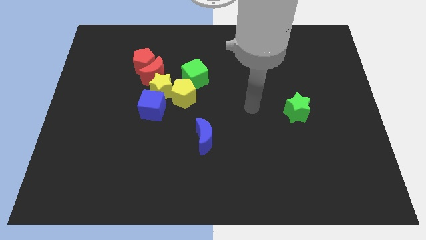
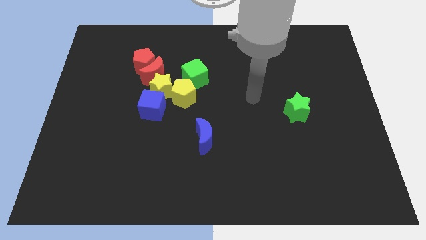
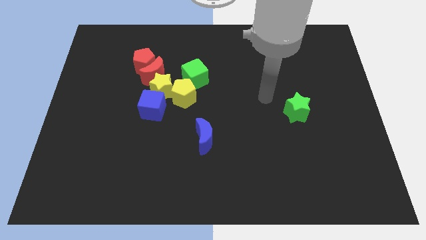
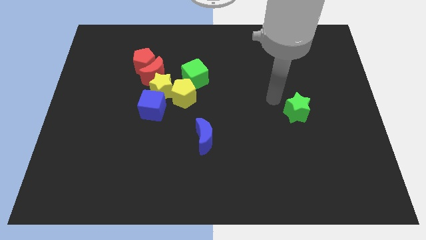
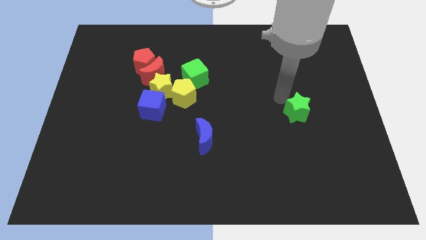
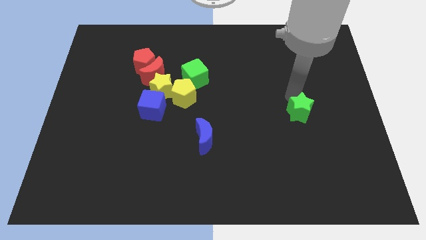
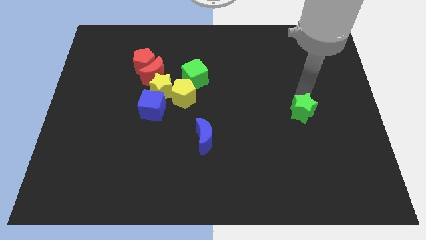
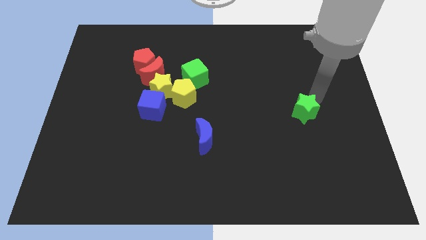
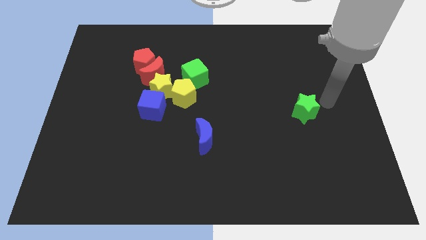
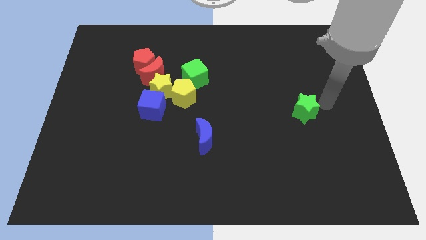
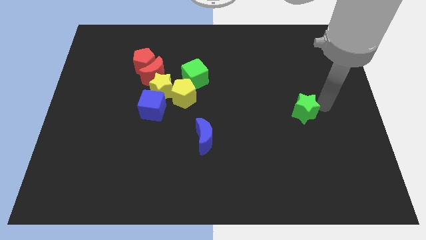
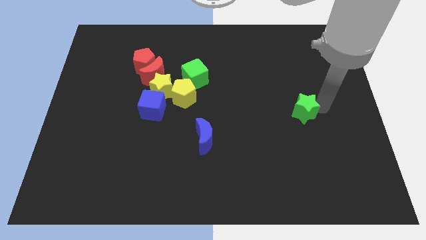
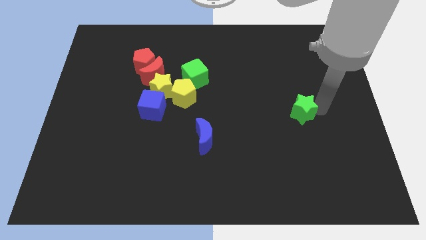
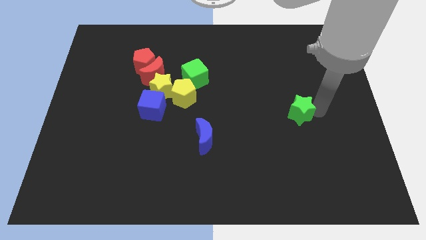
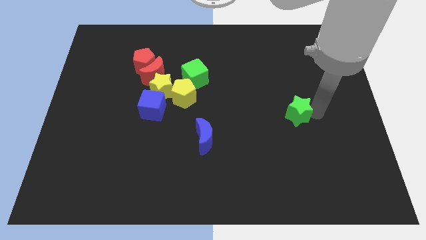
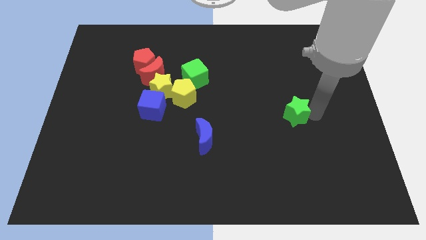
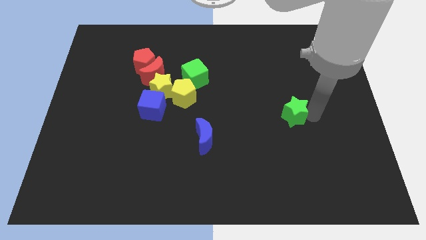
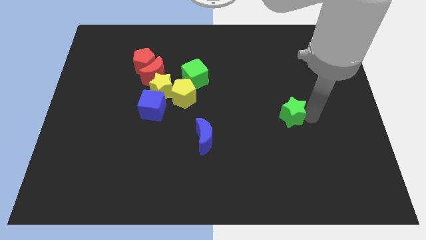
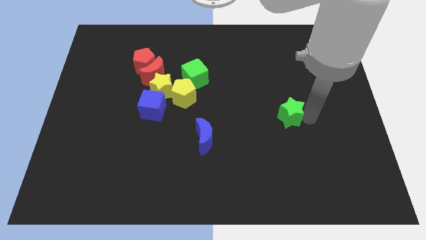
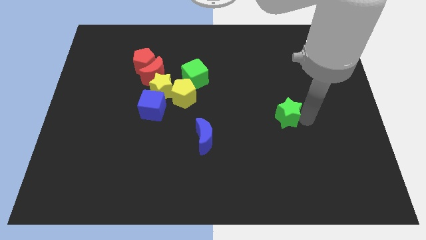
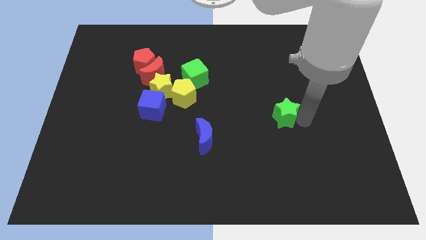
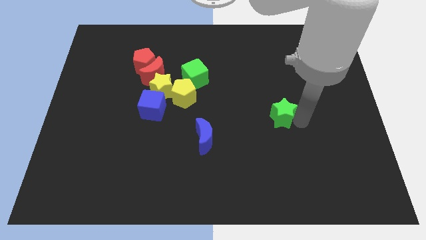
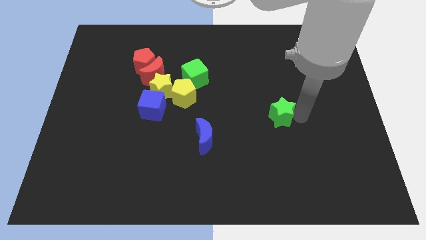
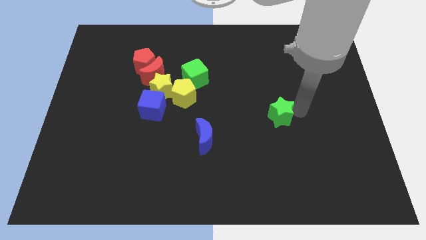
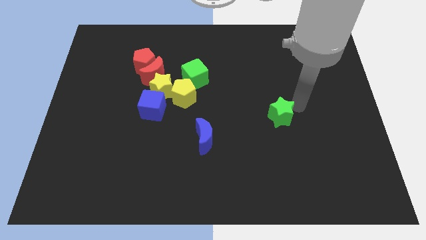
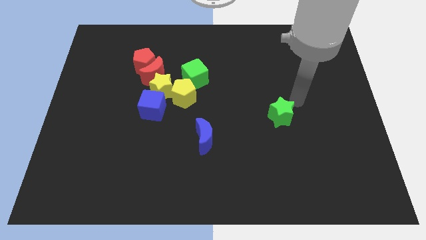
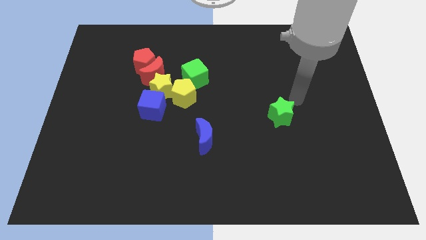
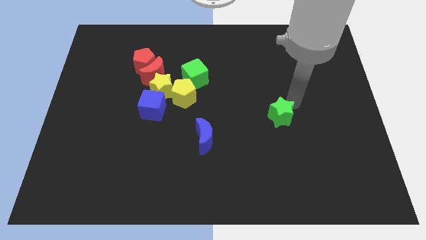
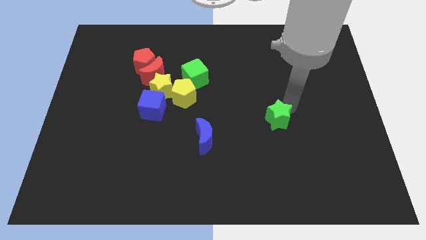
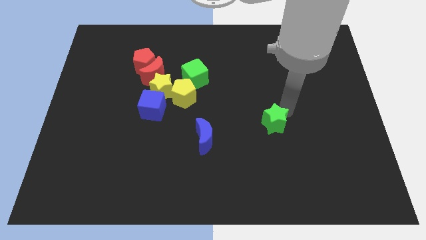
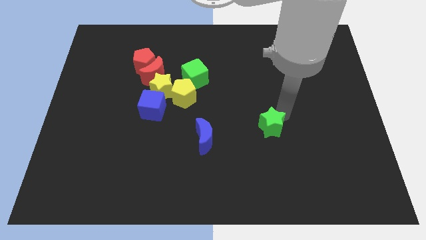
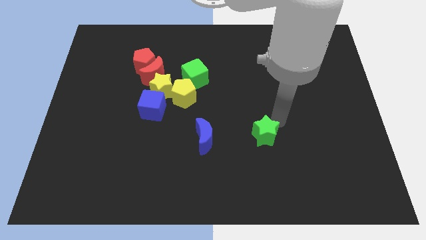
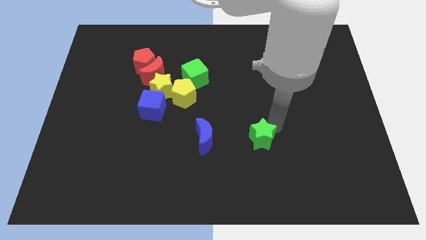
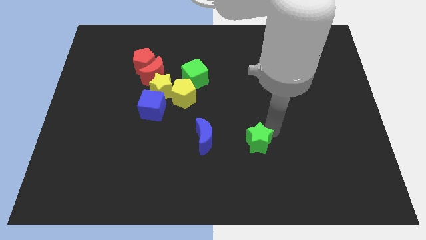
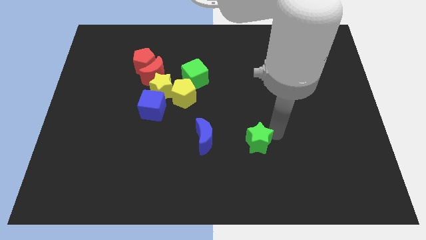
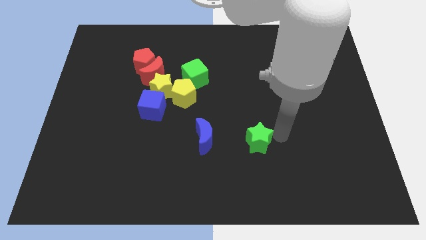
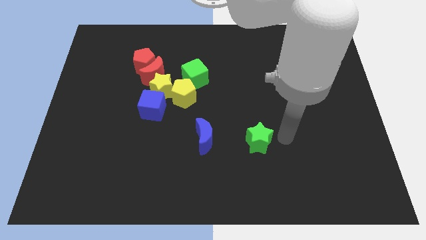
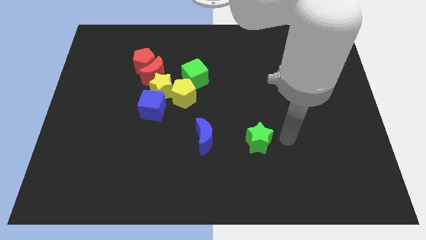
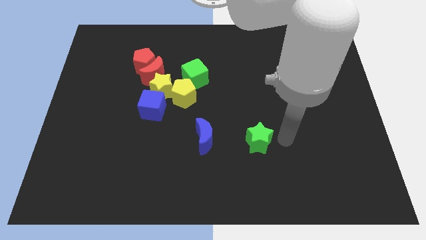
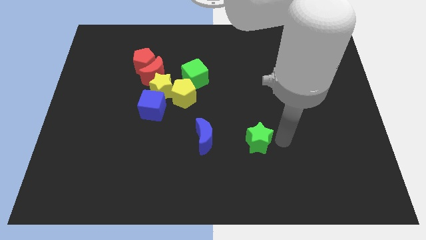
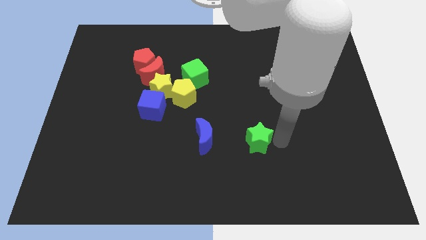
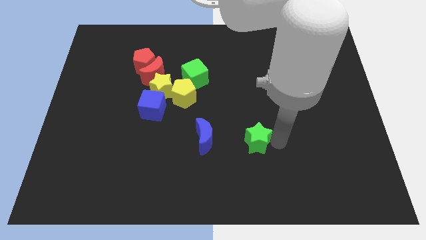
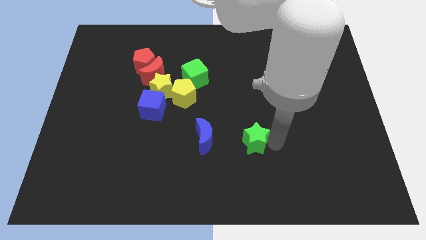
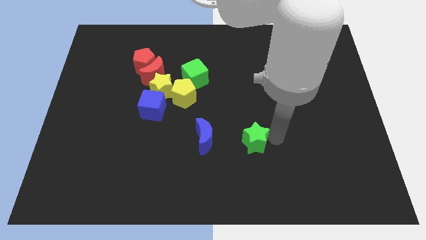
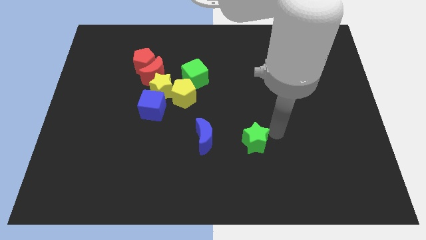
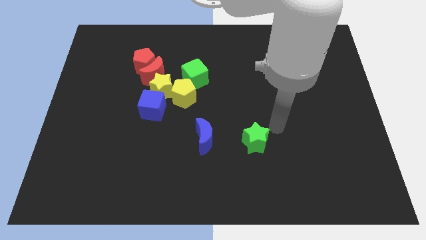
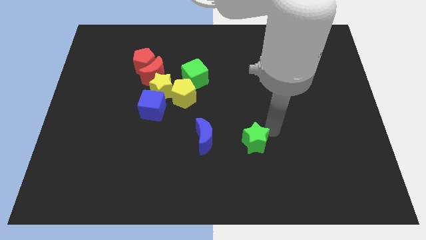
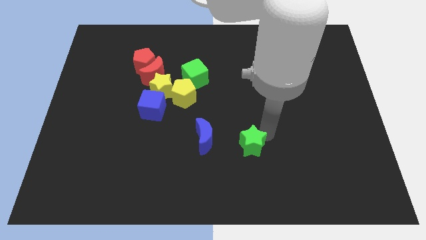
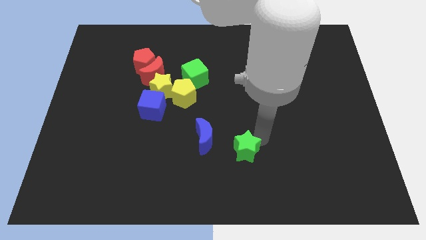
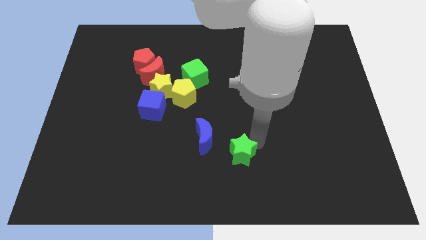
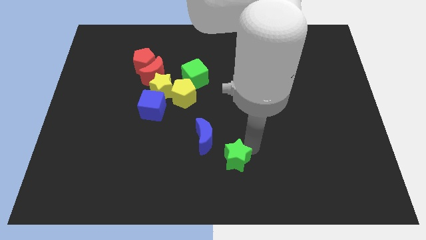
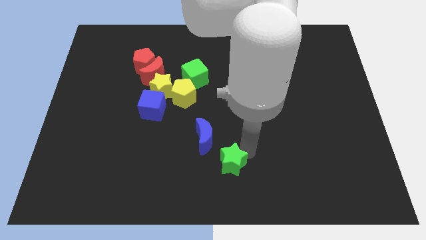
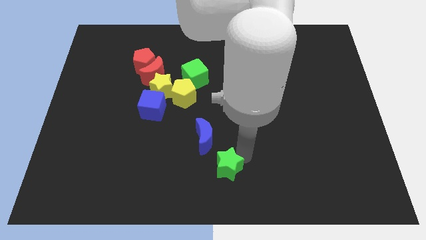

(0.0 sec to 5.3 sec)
put the green star below the blue moon

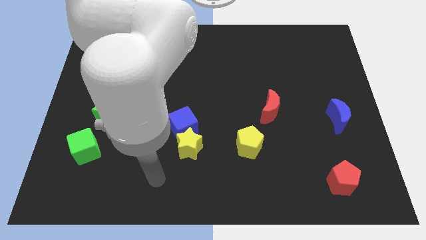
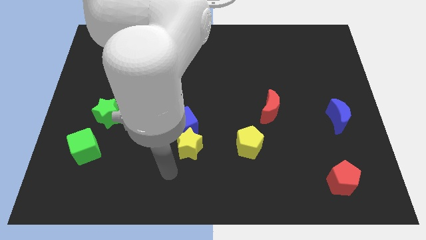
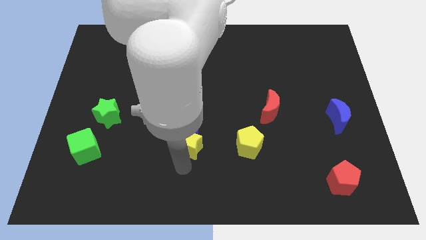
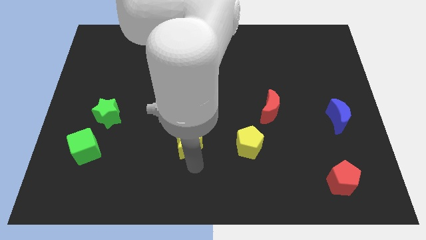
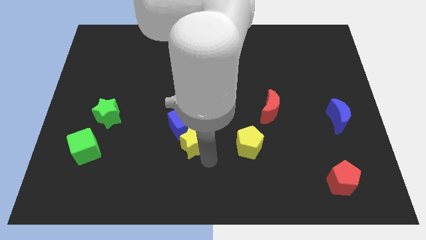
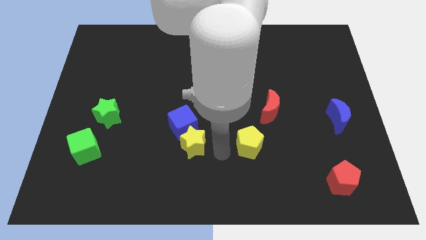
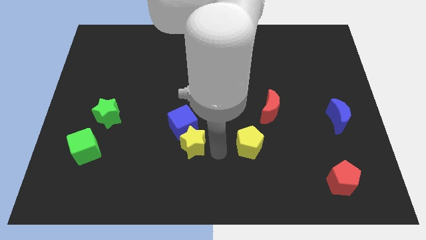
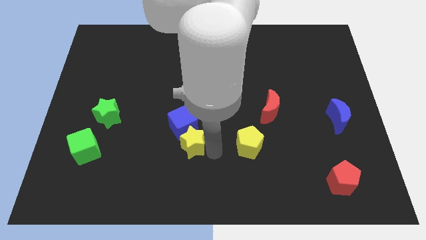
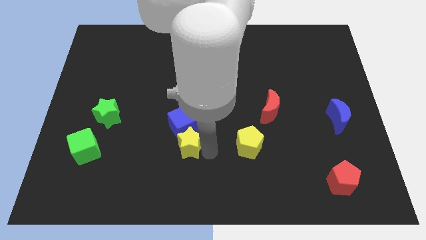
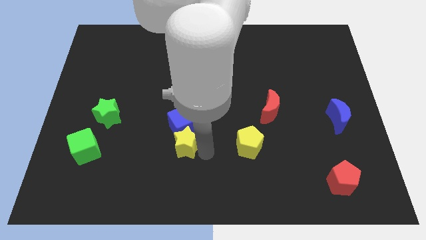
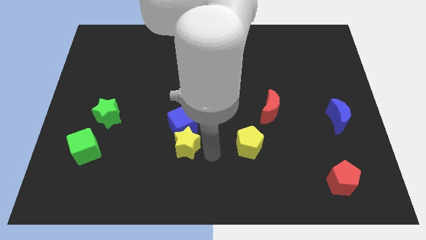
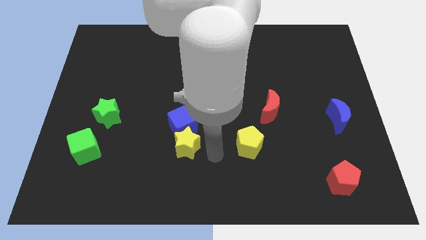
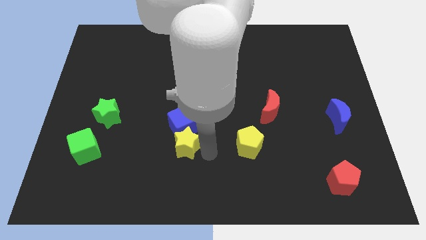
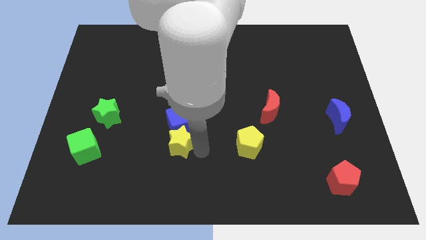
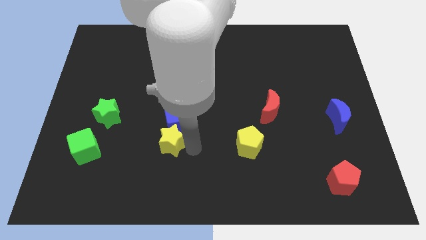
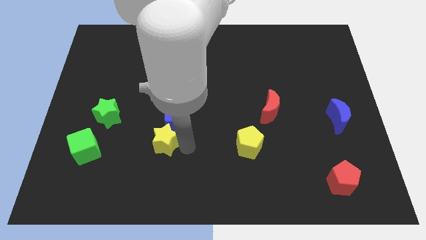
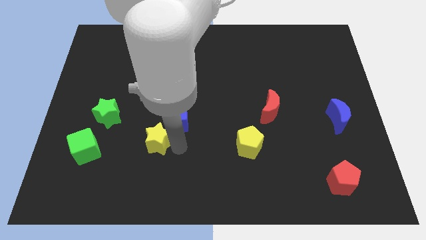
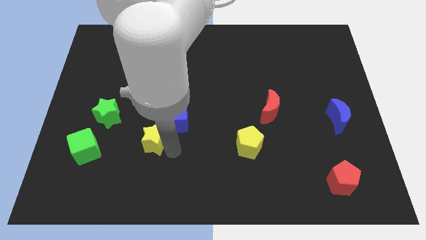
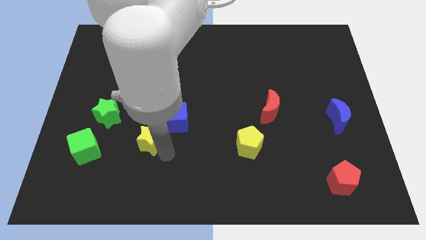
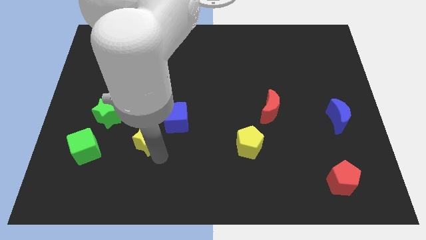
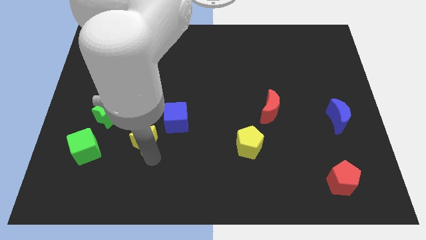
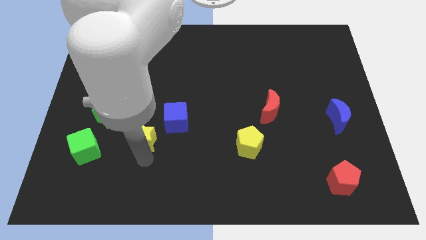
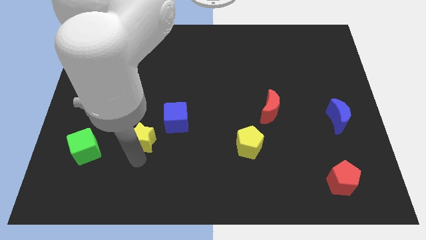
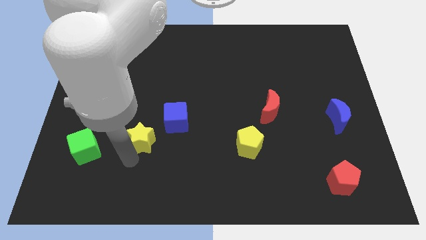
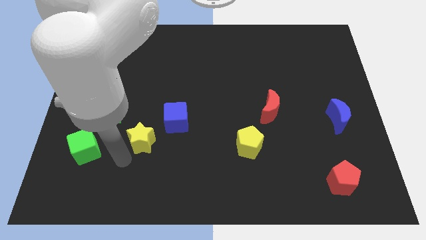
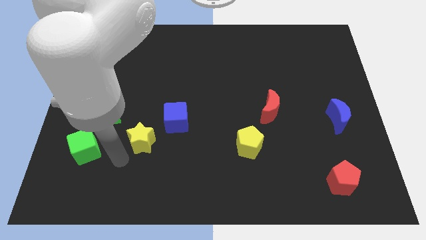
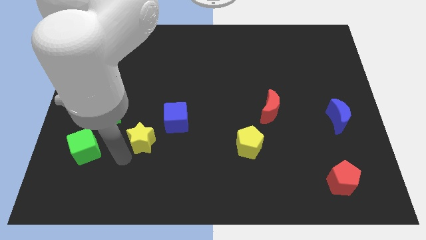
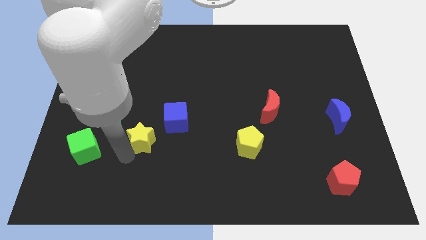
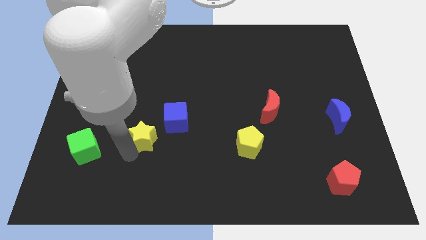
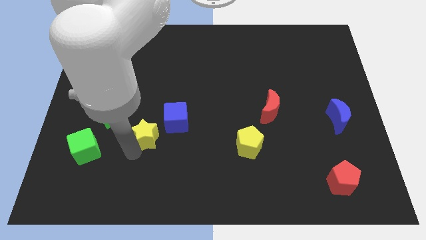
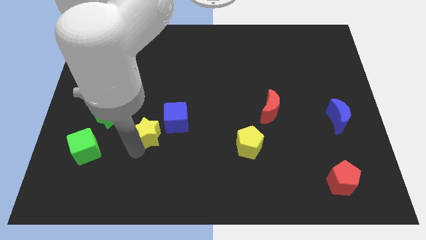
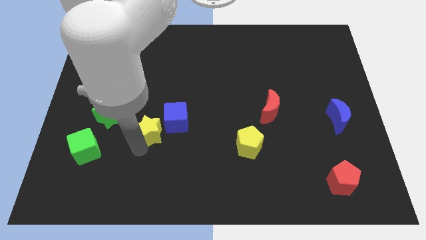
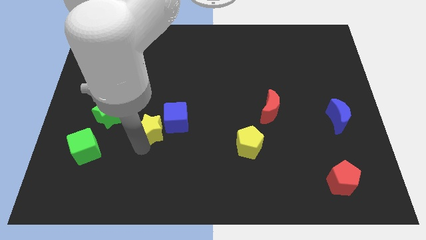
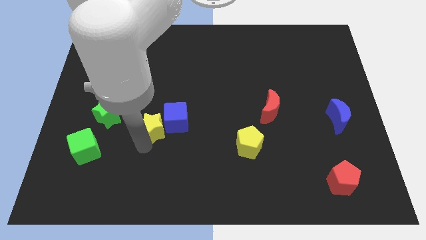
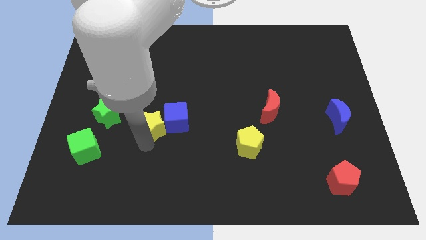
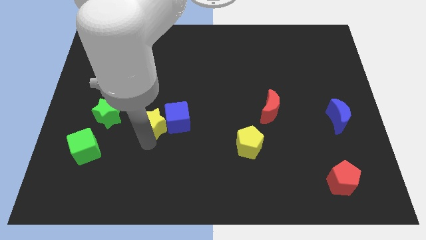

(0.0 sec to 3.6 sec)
move the yellow star diagonally up and to the left of the blue cube
